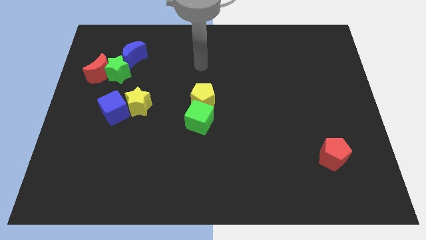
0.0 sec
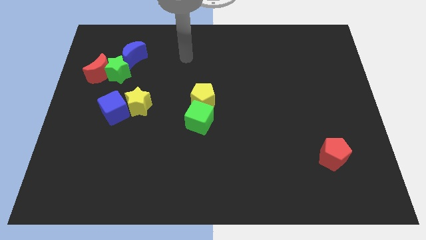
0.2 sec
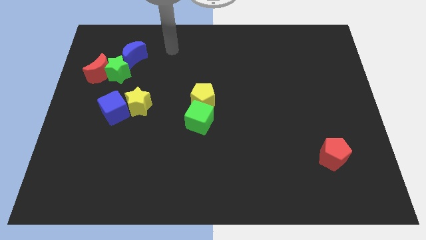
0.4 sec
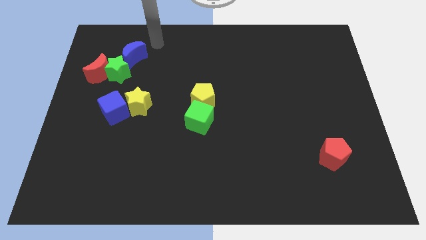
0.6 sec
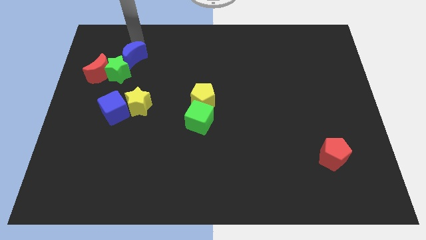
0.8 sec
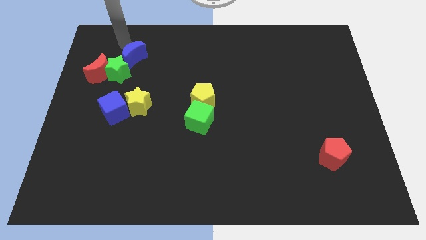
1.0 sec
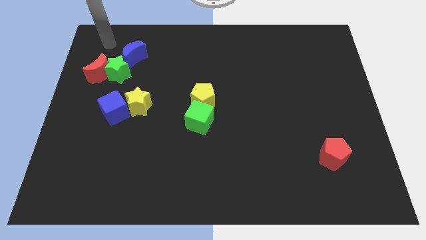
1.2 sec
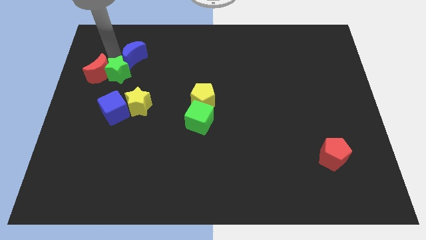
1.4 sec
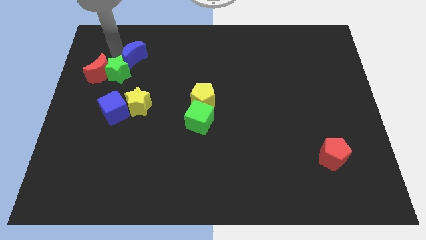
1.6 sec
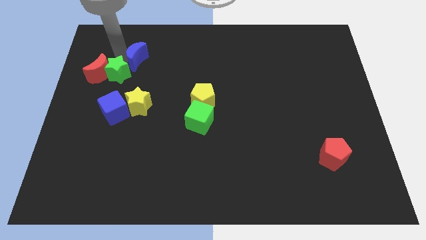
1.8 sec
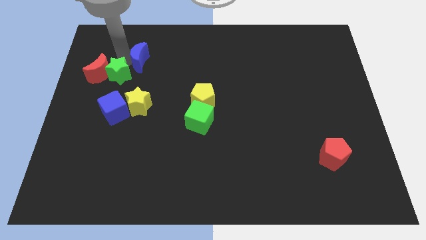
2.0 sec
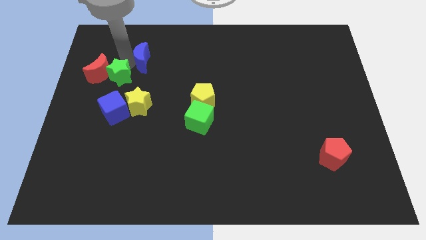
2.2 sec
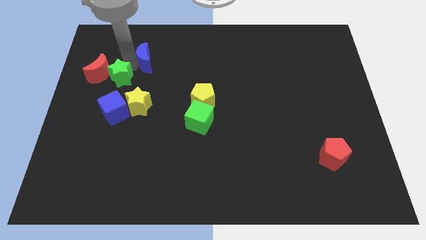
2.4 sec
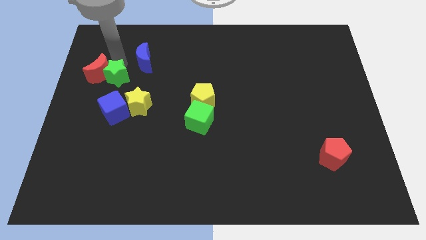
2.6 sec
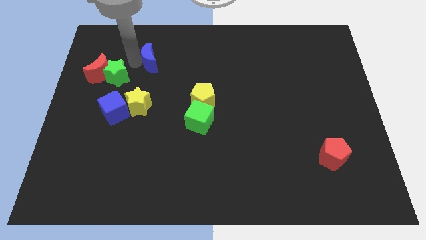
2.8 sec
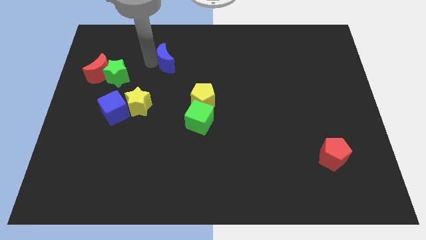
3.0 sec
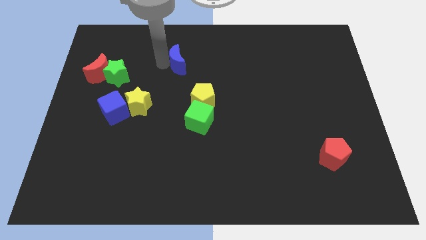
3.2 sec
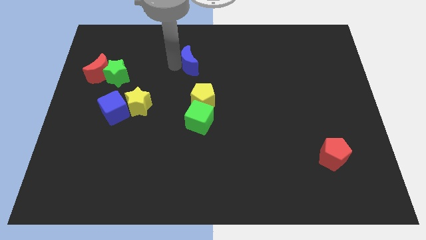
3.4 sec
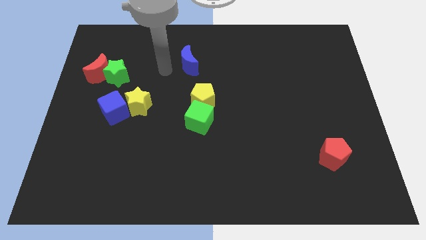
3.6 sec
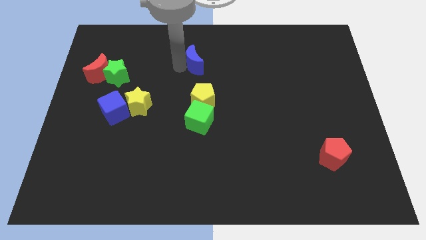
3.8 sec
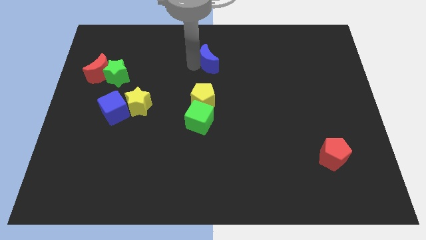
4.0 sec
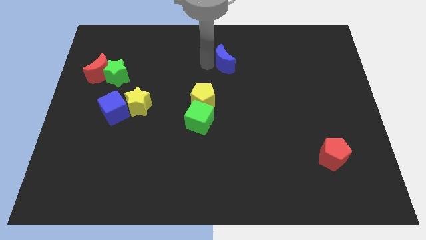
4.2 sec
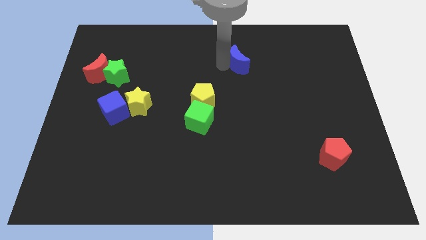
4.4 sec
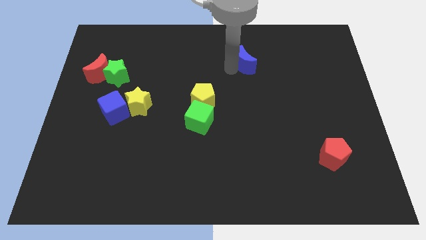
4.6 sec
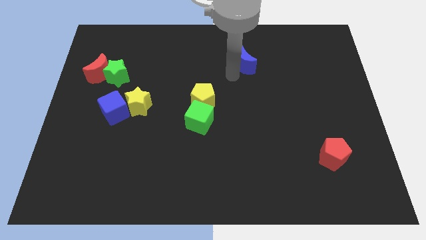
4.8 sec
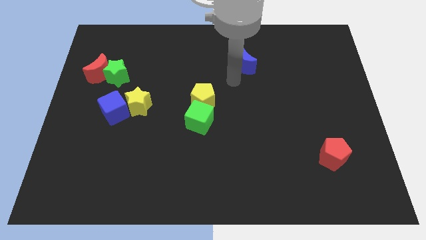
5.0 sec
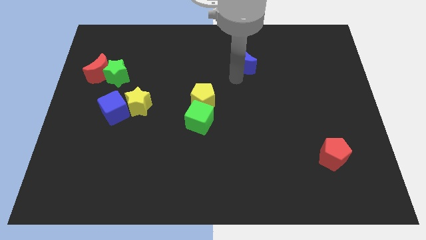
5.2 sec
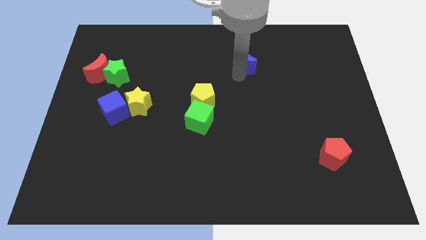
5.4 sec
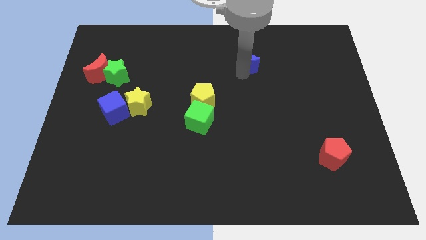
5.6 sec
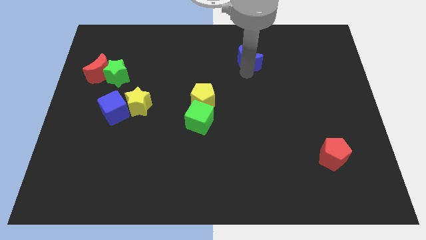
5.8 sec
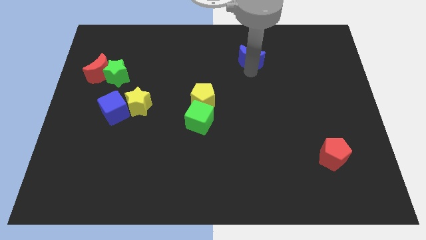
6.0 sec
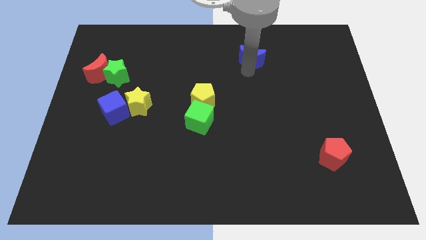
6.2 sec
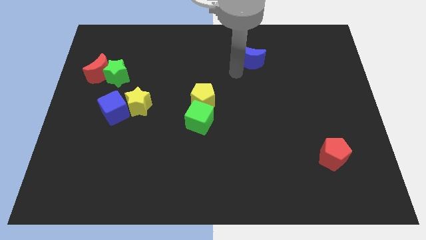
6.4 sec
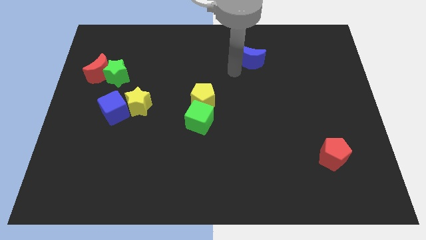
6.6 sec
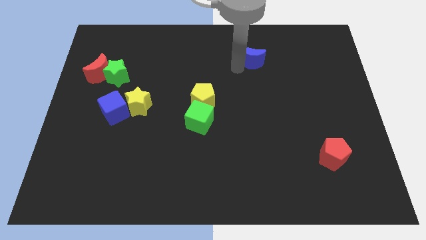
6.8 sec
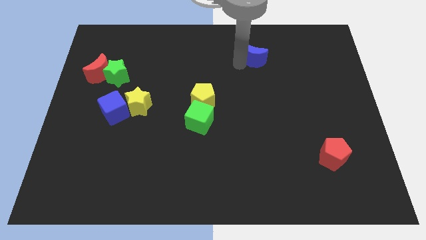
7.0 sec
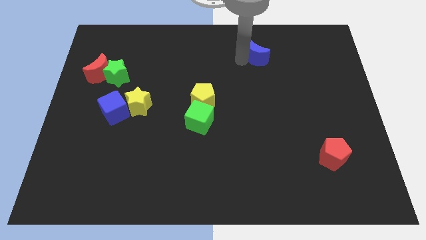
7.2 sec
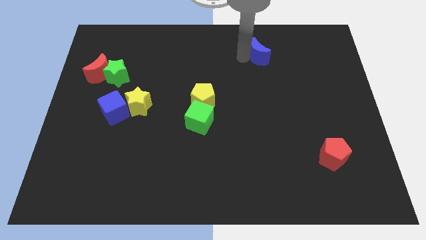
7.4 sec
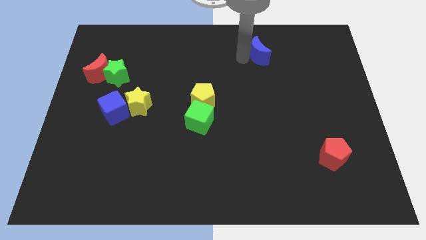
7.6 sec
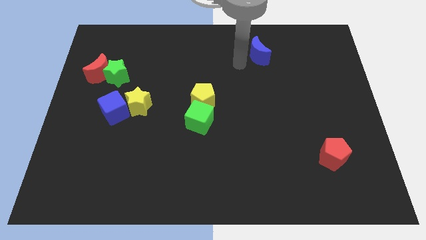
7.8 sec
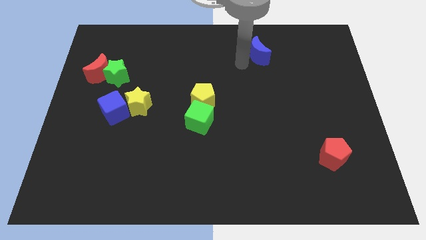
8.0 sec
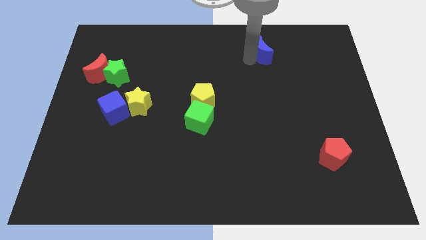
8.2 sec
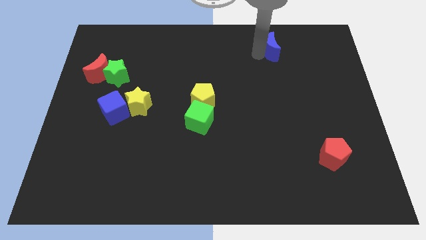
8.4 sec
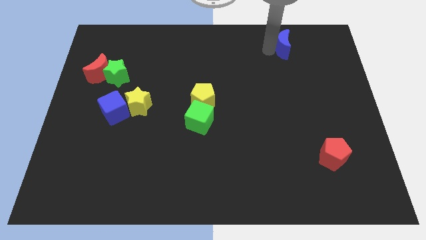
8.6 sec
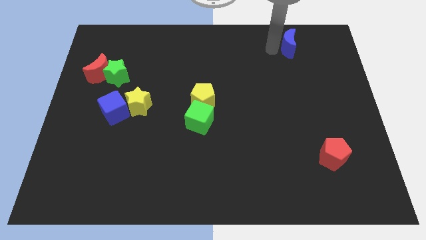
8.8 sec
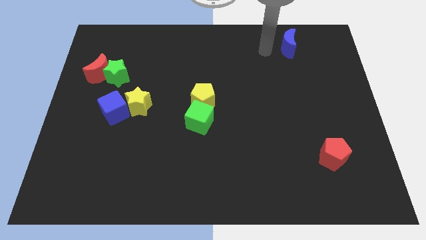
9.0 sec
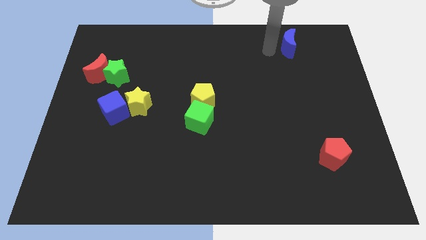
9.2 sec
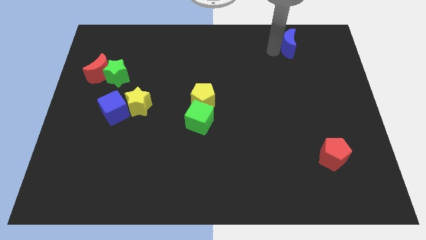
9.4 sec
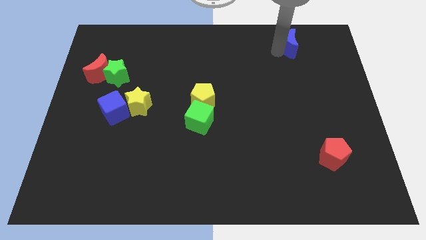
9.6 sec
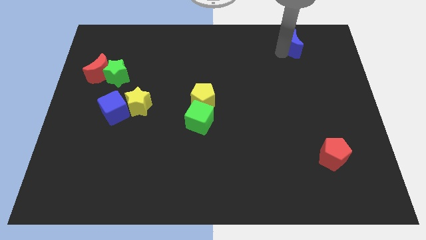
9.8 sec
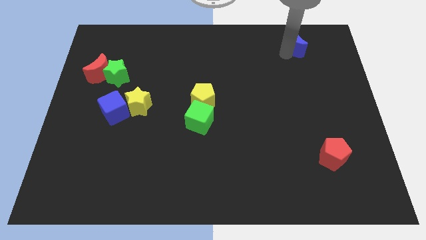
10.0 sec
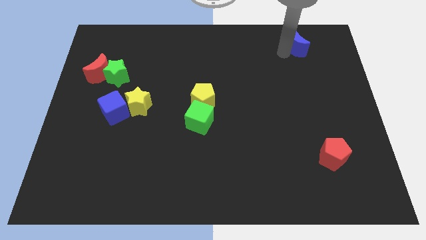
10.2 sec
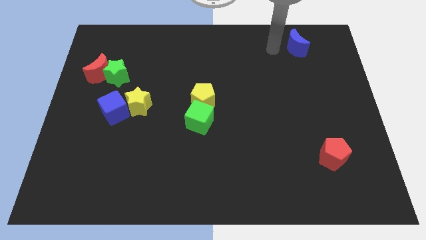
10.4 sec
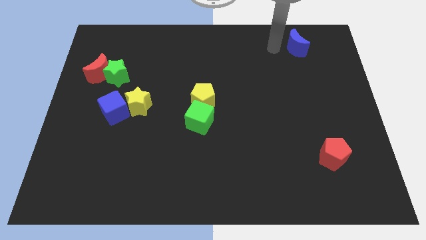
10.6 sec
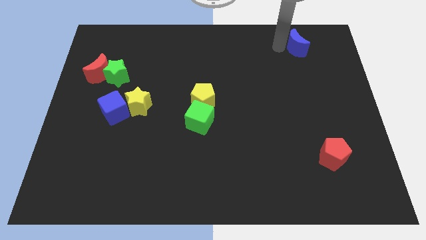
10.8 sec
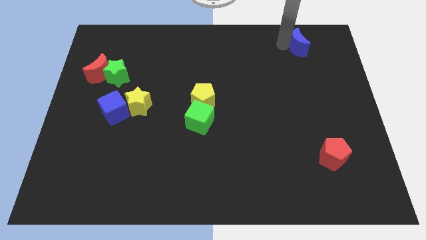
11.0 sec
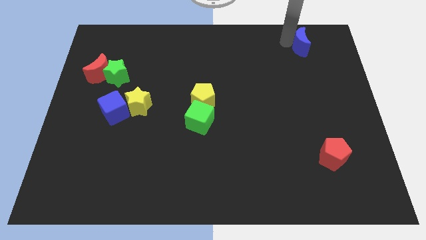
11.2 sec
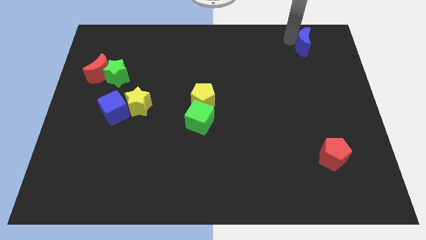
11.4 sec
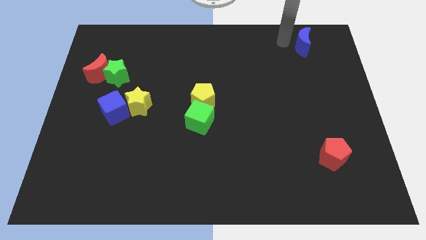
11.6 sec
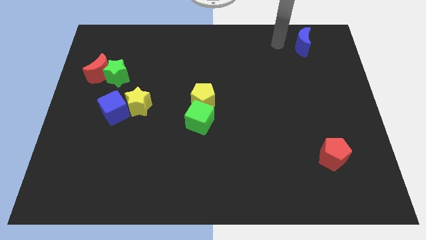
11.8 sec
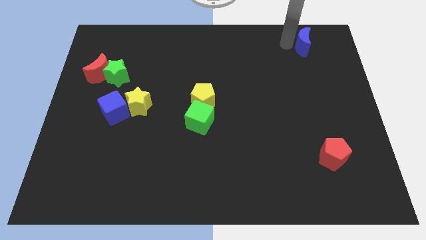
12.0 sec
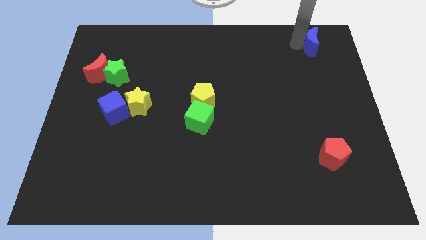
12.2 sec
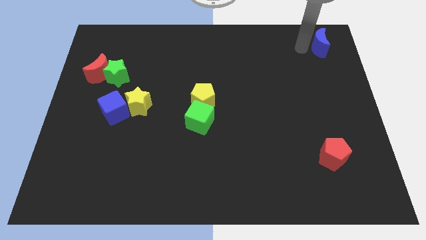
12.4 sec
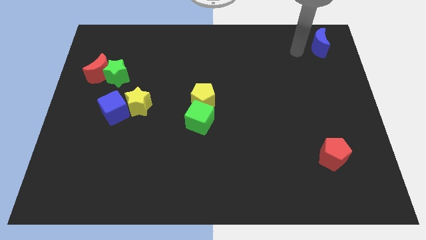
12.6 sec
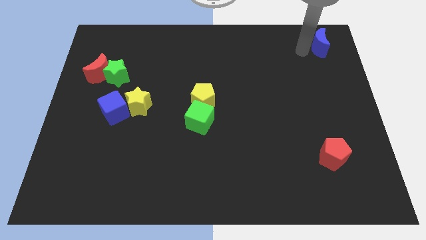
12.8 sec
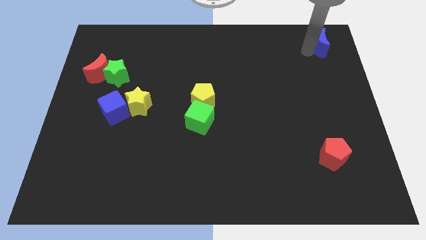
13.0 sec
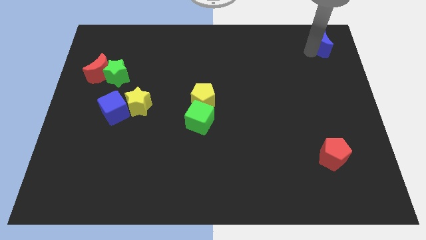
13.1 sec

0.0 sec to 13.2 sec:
move the blue moon to the top right corner
